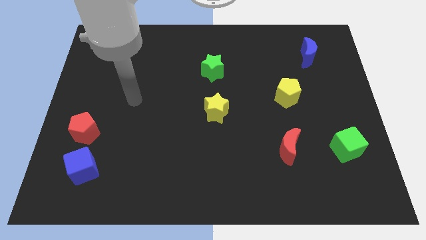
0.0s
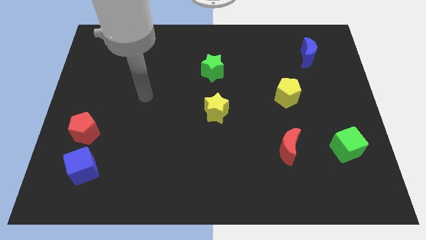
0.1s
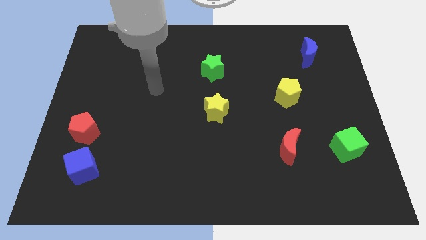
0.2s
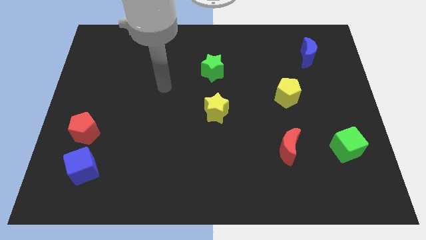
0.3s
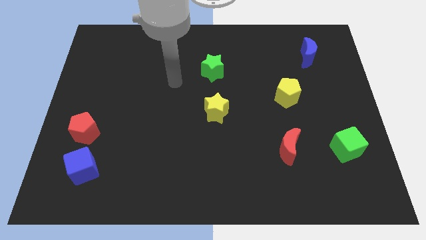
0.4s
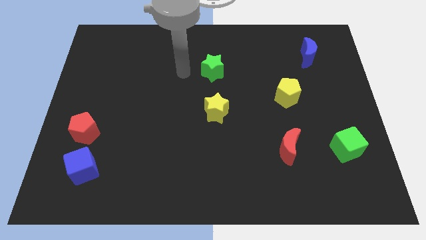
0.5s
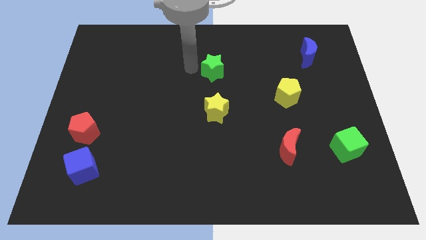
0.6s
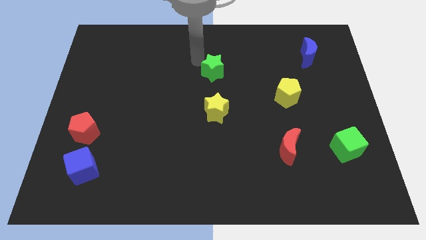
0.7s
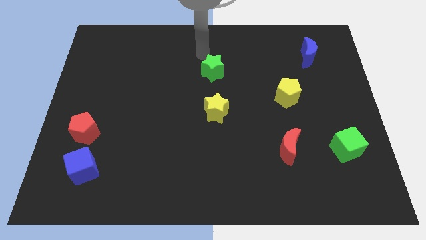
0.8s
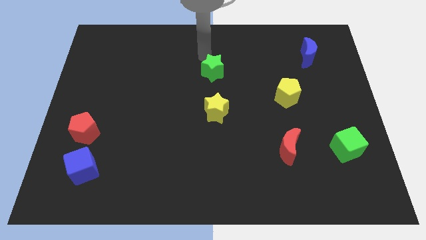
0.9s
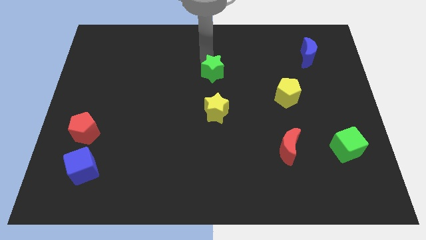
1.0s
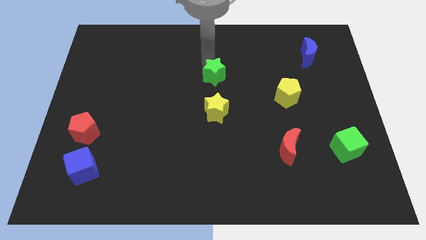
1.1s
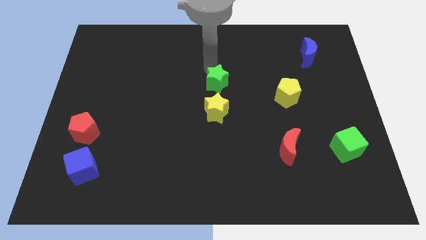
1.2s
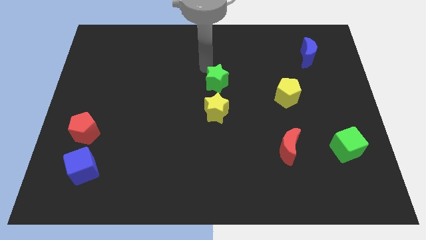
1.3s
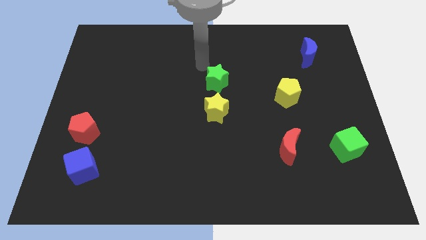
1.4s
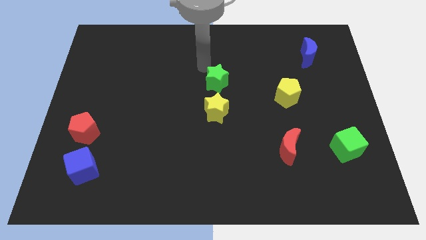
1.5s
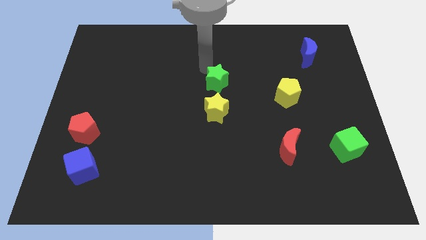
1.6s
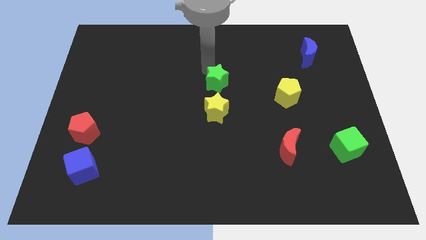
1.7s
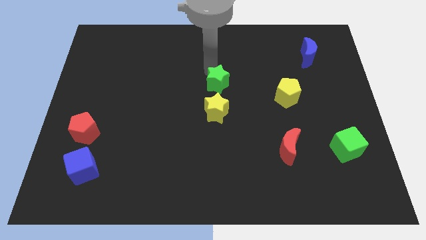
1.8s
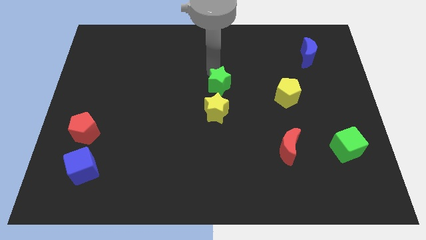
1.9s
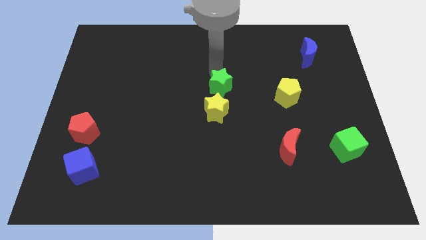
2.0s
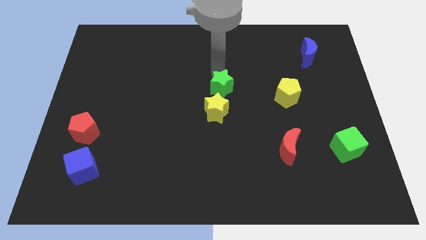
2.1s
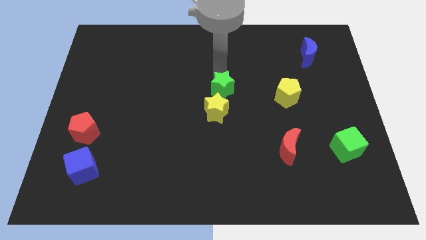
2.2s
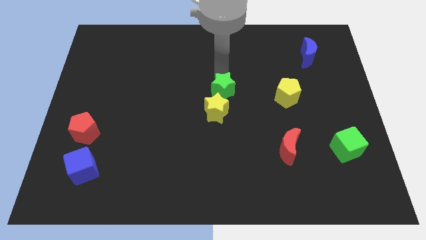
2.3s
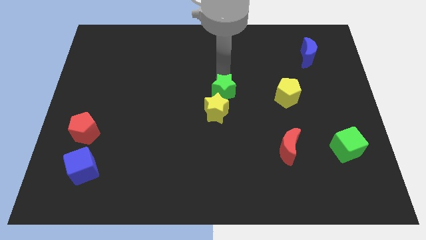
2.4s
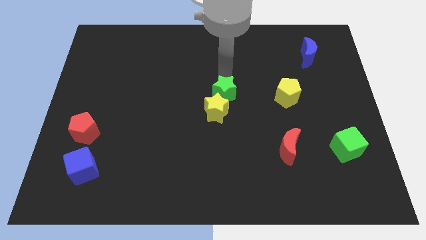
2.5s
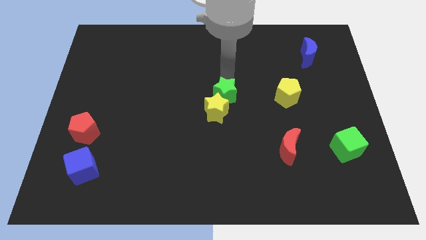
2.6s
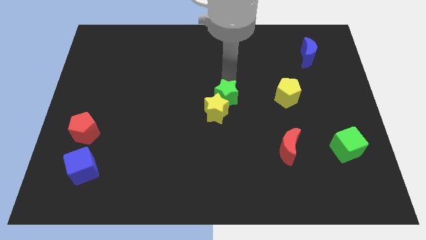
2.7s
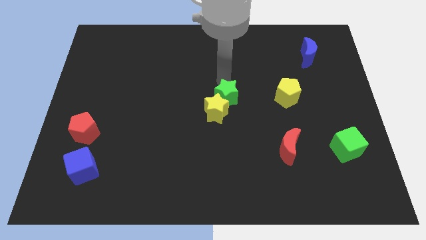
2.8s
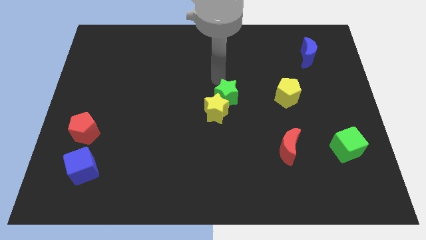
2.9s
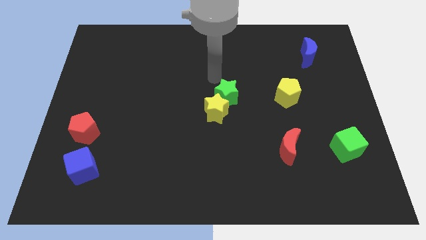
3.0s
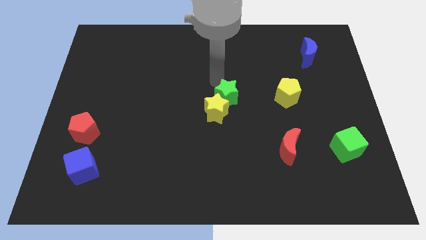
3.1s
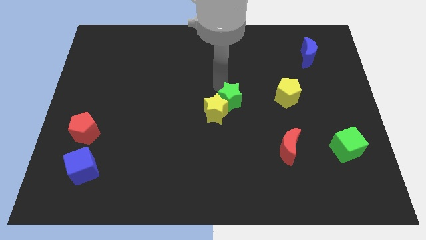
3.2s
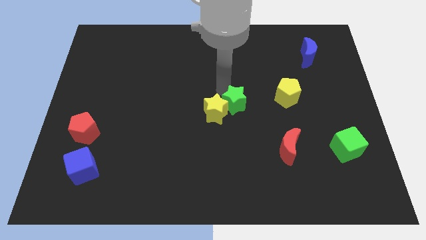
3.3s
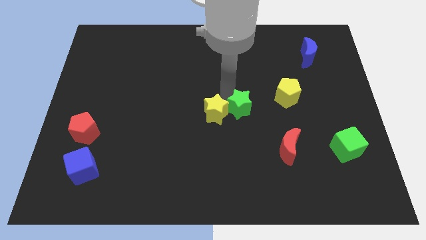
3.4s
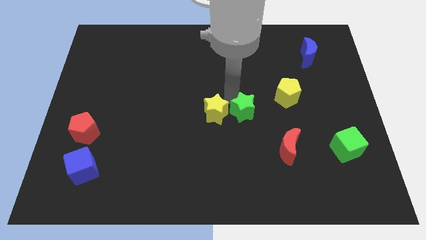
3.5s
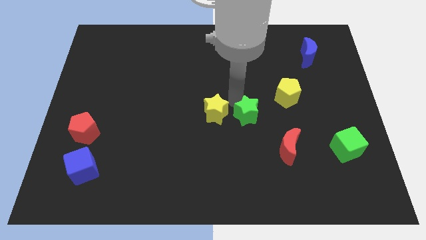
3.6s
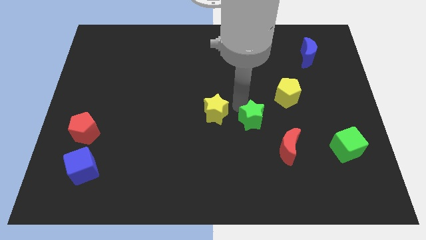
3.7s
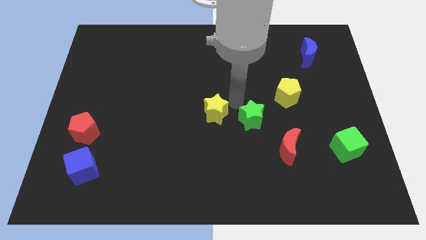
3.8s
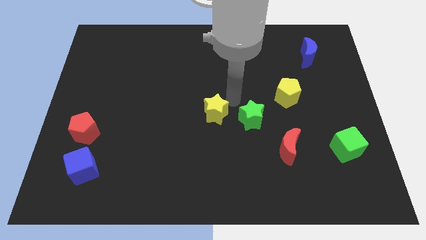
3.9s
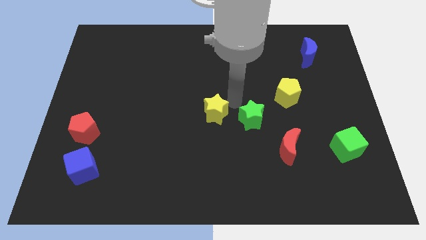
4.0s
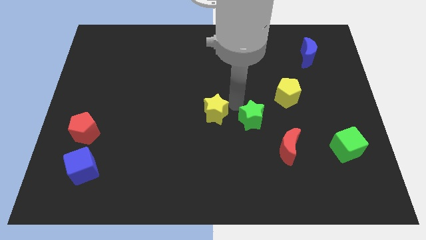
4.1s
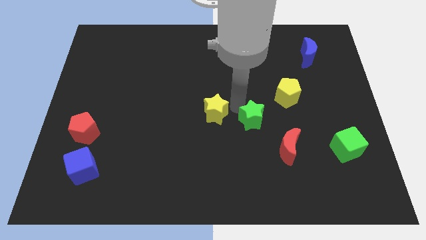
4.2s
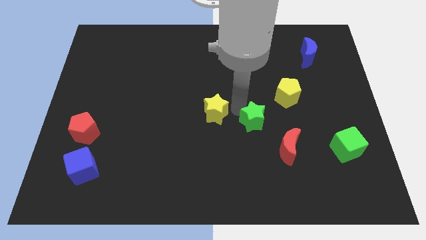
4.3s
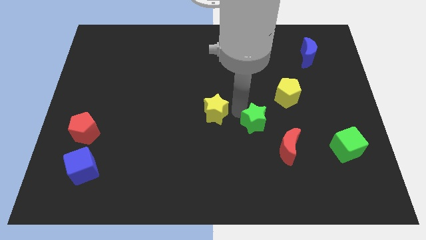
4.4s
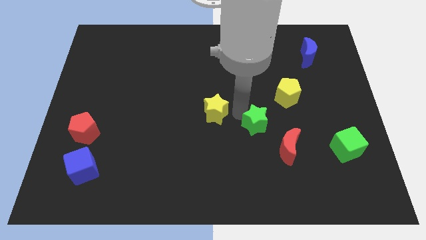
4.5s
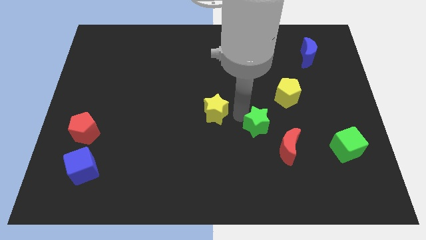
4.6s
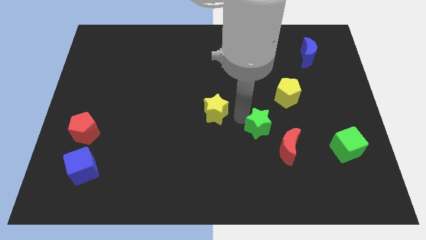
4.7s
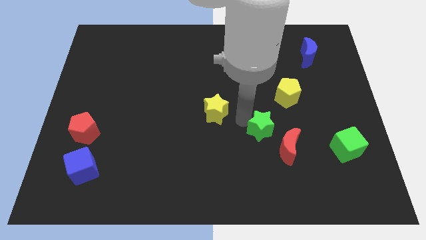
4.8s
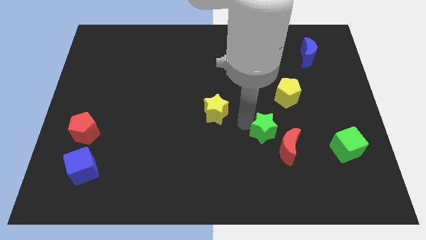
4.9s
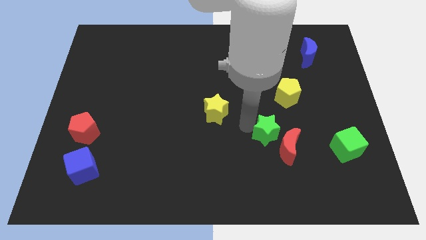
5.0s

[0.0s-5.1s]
put the green star next to the red moon
